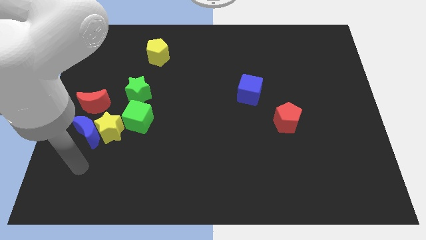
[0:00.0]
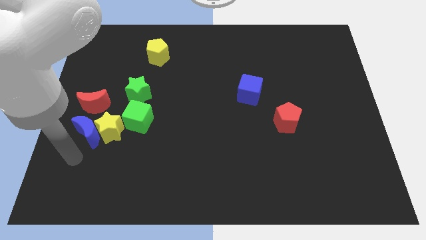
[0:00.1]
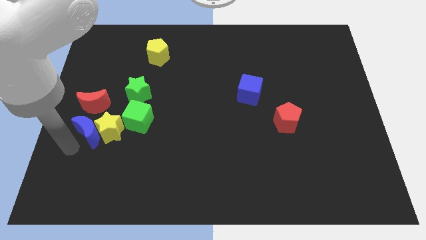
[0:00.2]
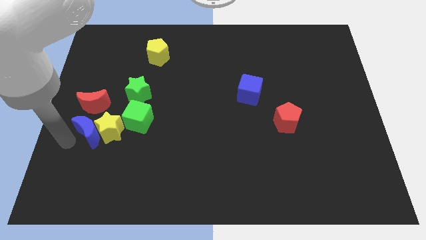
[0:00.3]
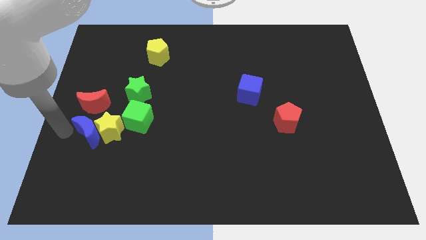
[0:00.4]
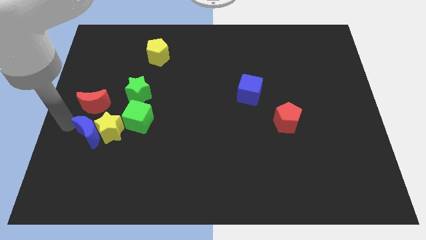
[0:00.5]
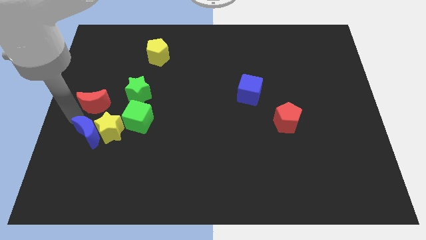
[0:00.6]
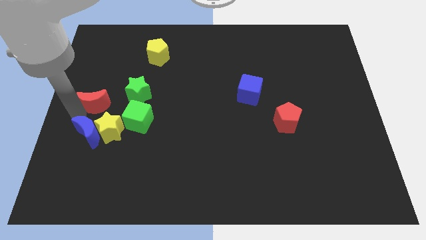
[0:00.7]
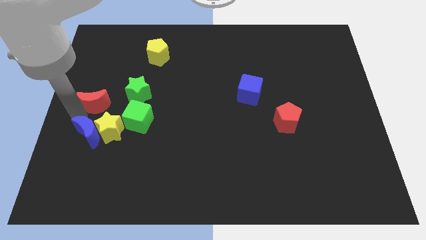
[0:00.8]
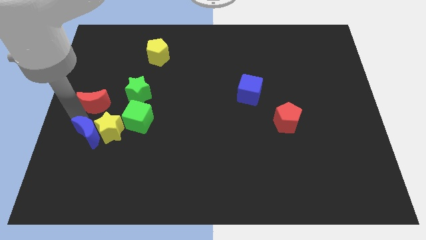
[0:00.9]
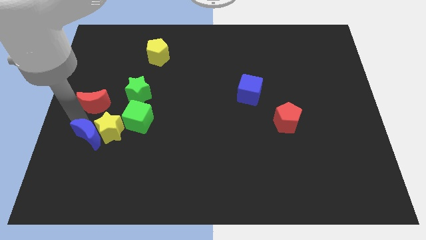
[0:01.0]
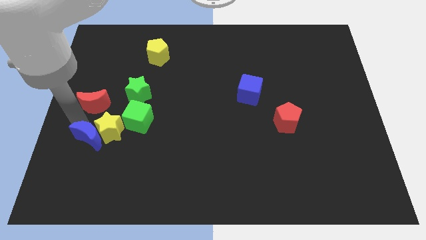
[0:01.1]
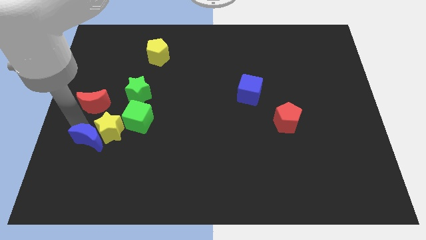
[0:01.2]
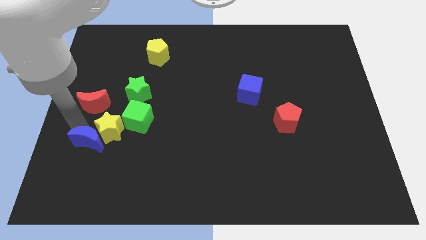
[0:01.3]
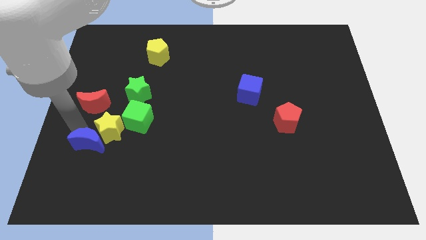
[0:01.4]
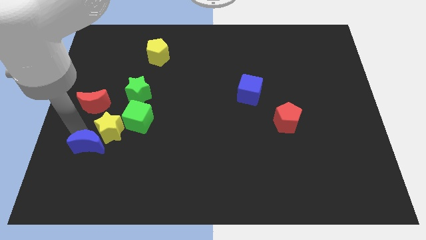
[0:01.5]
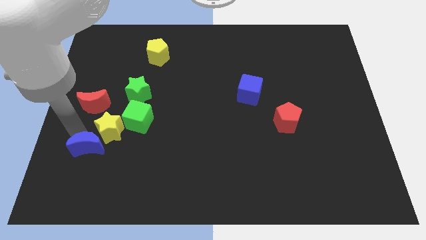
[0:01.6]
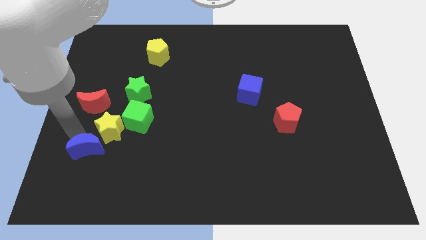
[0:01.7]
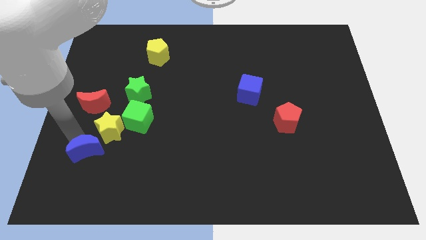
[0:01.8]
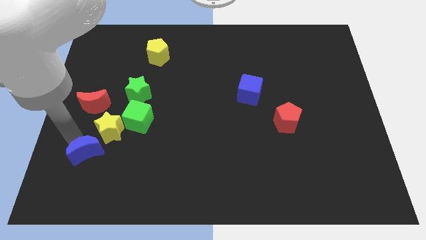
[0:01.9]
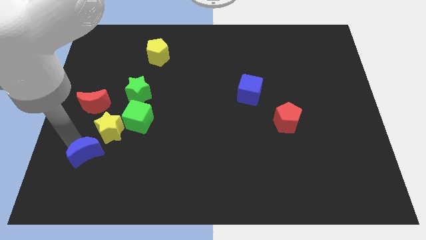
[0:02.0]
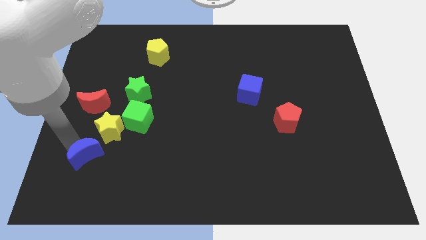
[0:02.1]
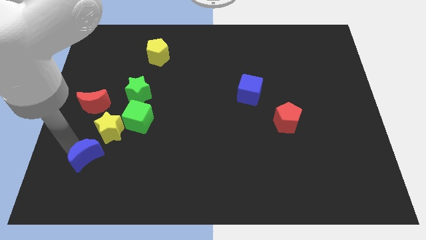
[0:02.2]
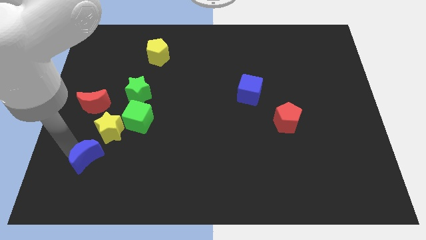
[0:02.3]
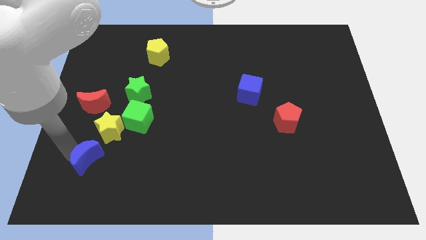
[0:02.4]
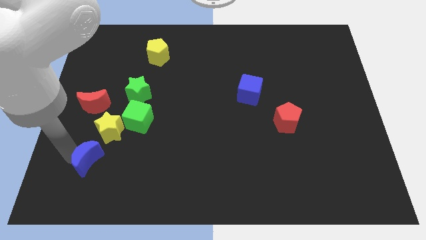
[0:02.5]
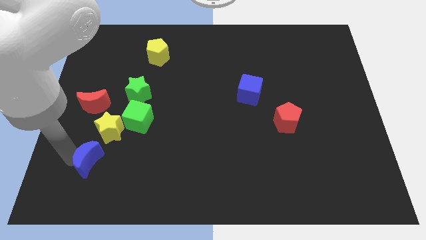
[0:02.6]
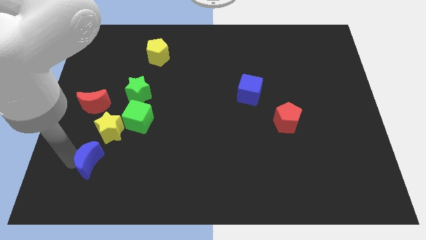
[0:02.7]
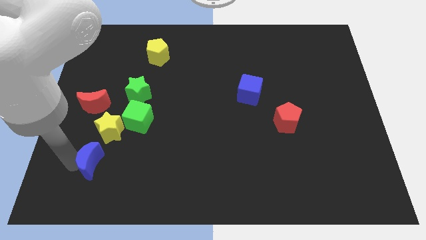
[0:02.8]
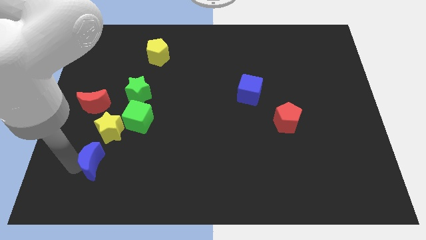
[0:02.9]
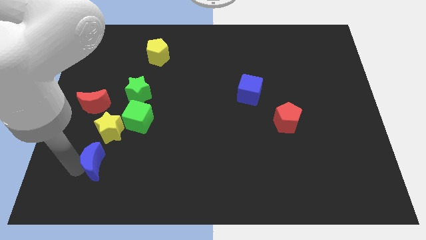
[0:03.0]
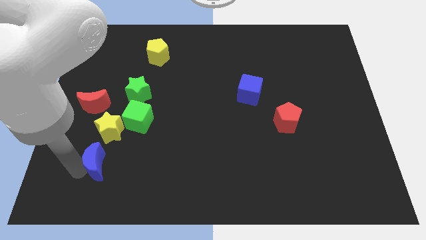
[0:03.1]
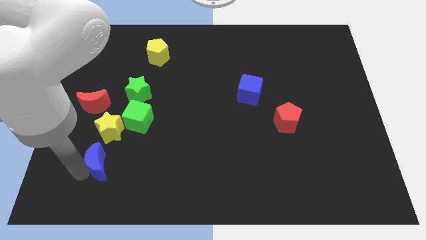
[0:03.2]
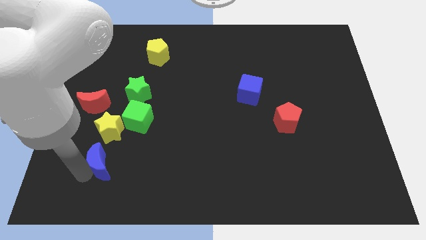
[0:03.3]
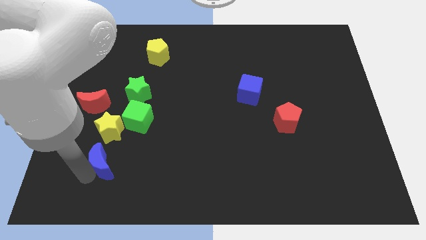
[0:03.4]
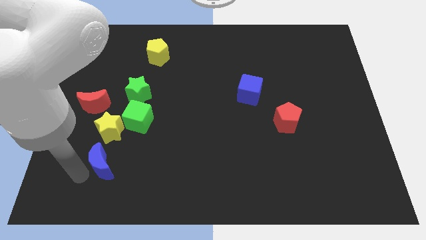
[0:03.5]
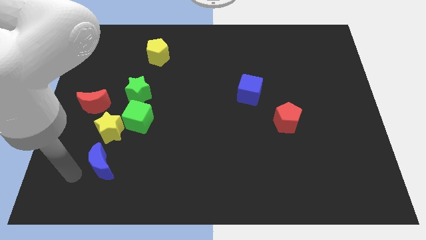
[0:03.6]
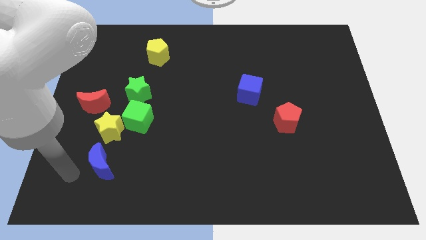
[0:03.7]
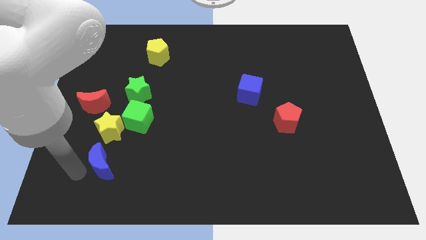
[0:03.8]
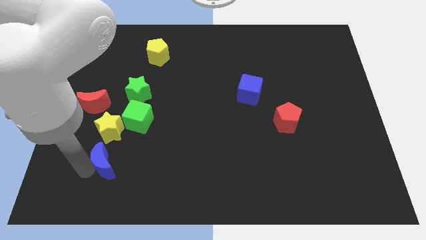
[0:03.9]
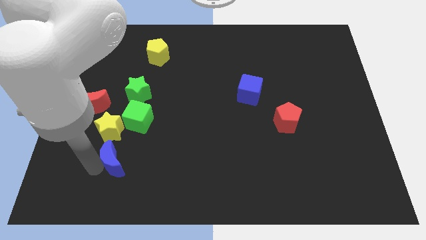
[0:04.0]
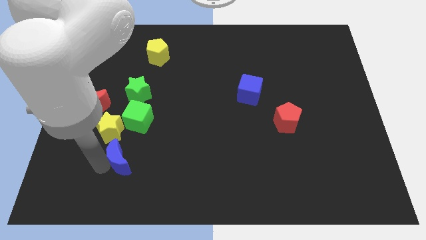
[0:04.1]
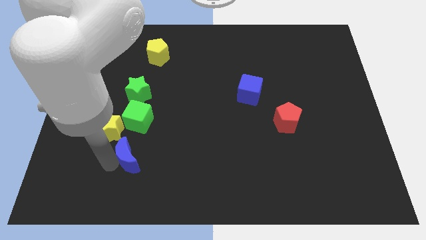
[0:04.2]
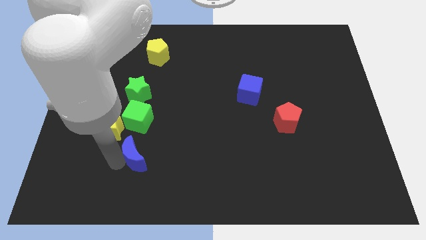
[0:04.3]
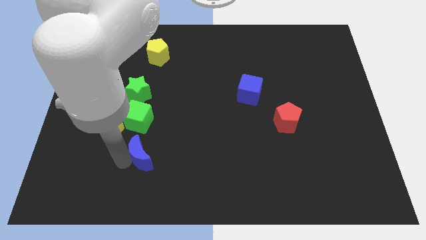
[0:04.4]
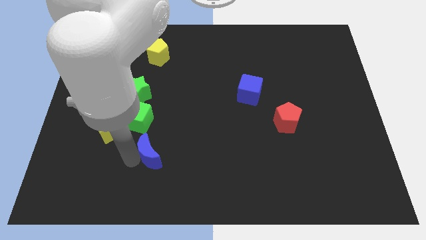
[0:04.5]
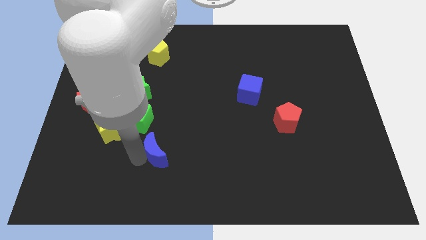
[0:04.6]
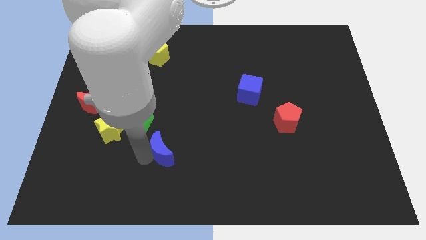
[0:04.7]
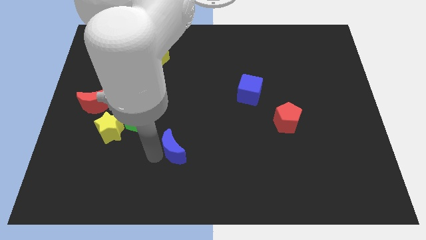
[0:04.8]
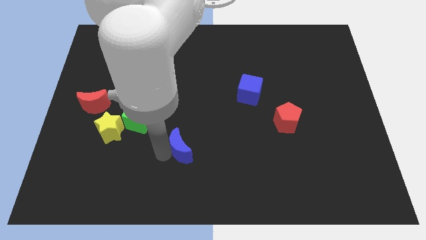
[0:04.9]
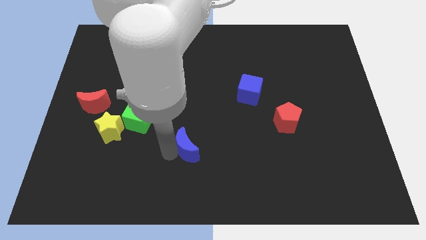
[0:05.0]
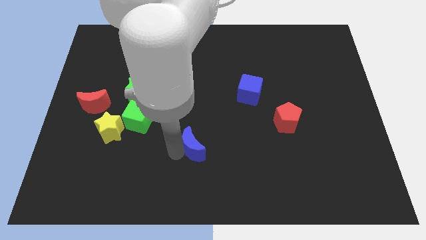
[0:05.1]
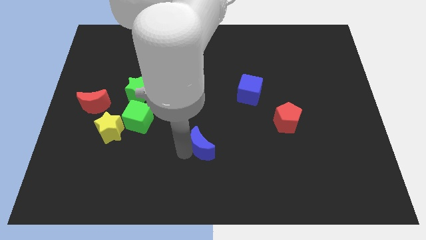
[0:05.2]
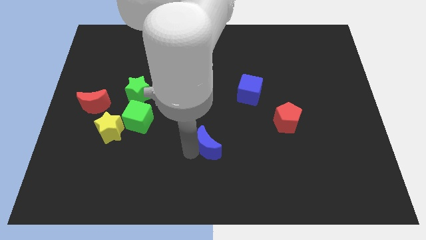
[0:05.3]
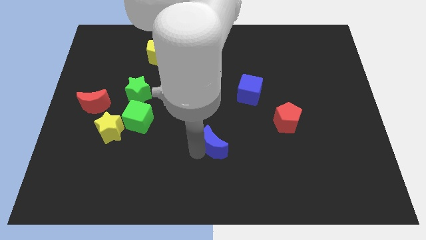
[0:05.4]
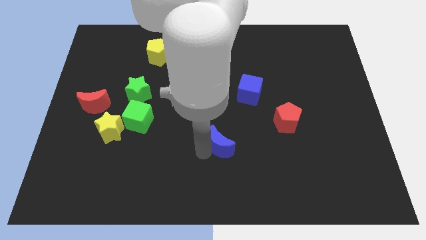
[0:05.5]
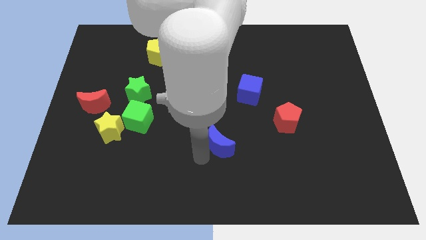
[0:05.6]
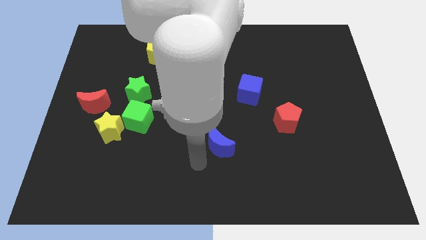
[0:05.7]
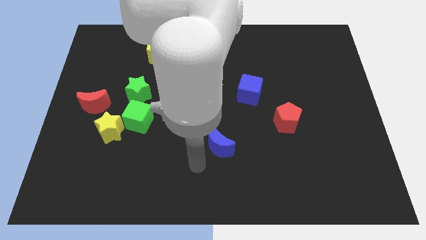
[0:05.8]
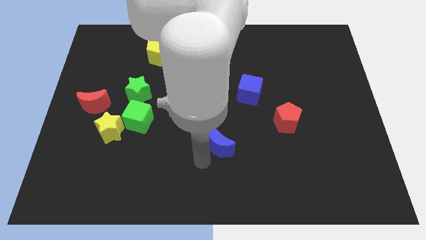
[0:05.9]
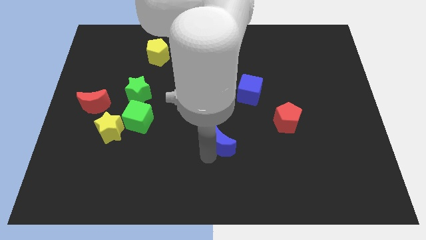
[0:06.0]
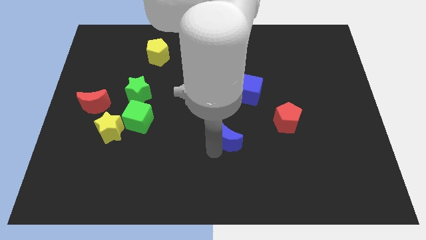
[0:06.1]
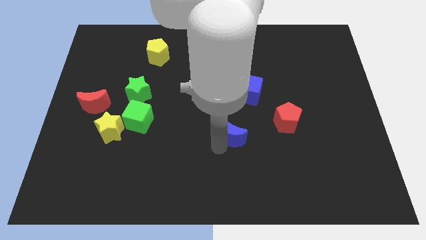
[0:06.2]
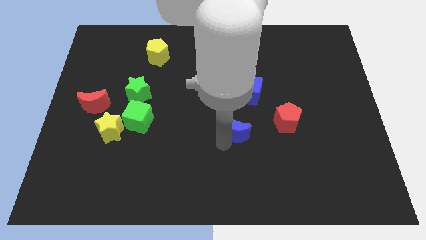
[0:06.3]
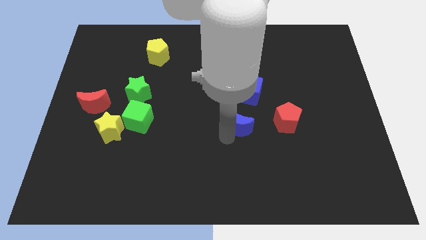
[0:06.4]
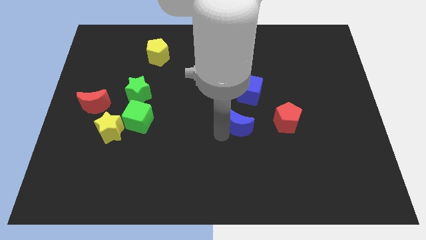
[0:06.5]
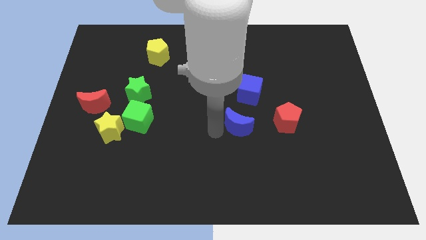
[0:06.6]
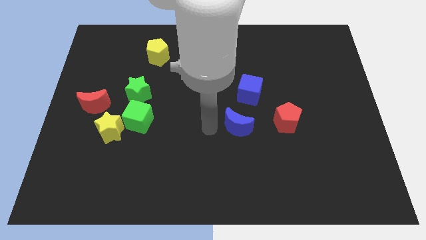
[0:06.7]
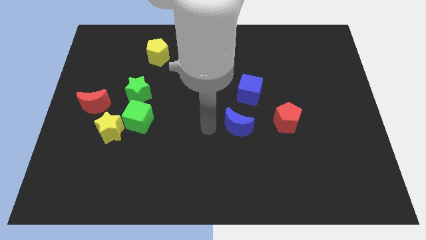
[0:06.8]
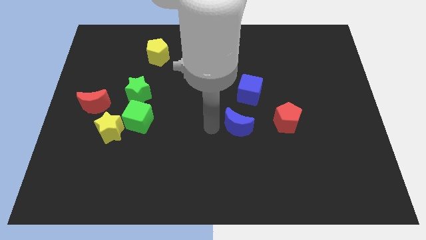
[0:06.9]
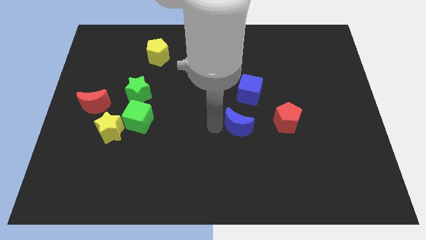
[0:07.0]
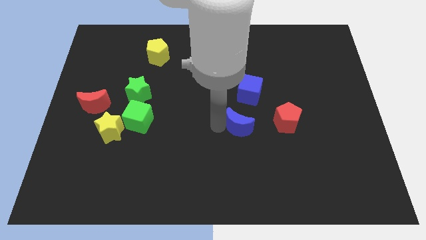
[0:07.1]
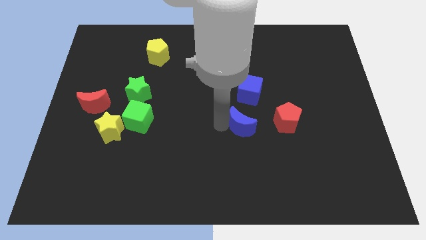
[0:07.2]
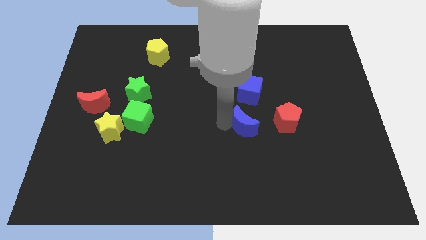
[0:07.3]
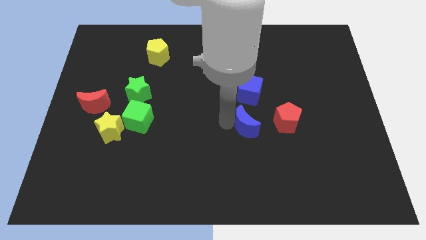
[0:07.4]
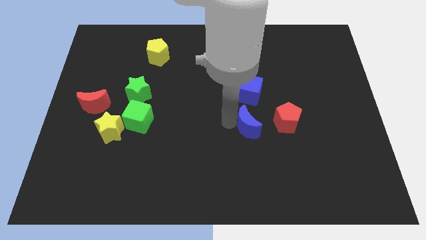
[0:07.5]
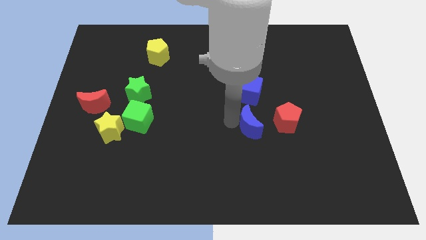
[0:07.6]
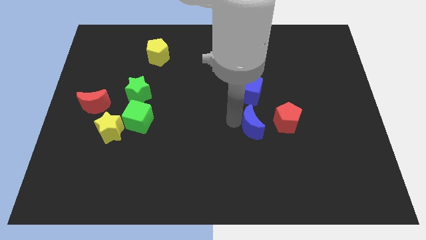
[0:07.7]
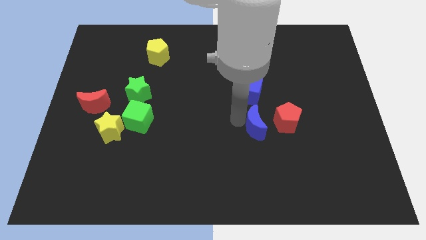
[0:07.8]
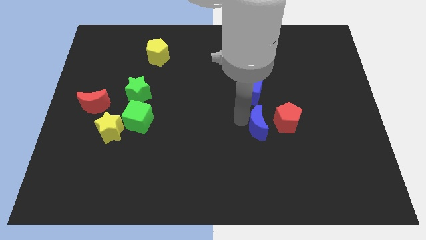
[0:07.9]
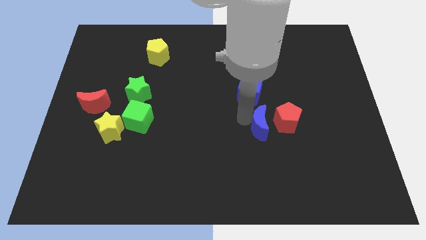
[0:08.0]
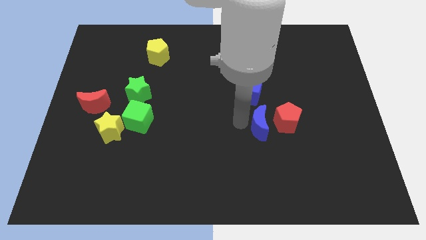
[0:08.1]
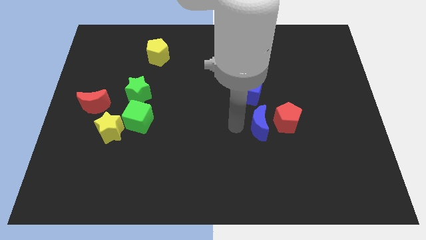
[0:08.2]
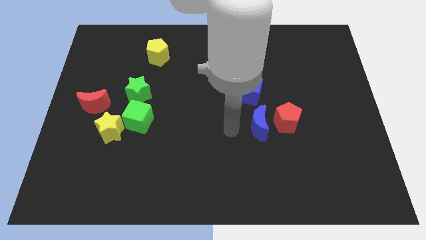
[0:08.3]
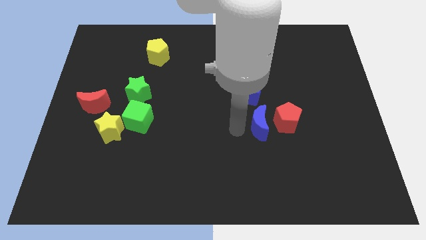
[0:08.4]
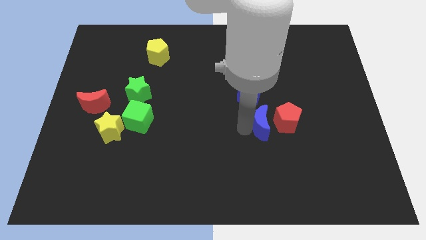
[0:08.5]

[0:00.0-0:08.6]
move the blue moon close to the red pentagon
